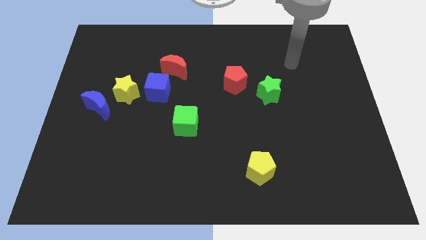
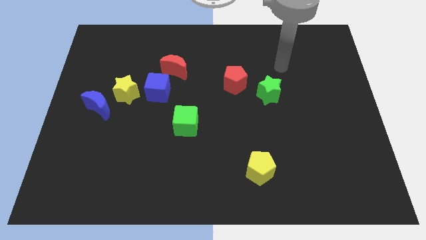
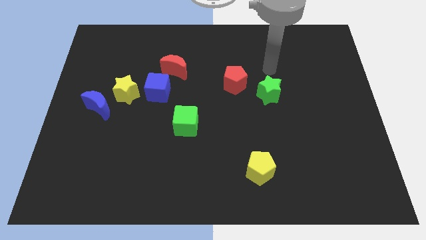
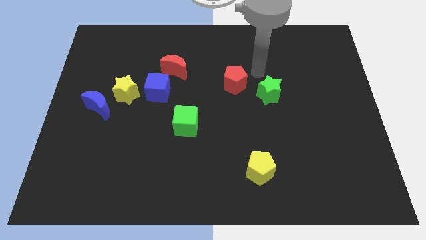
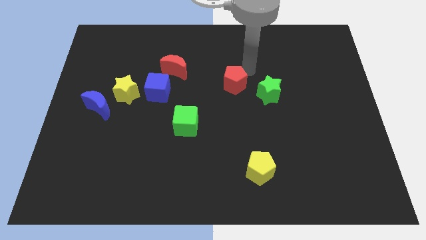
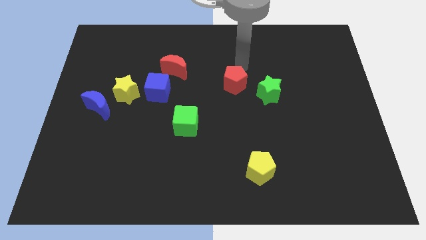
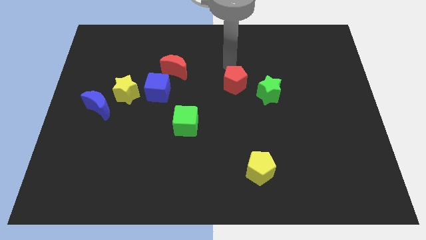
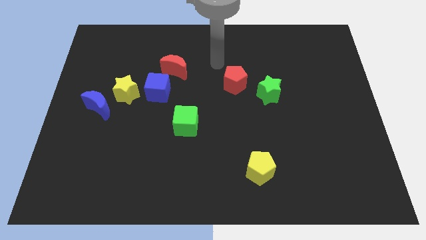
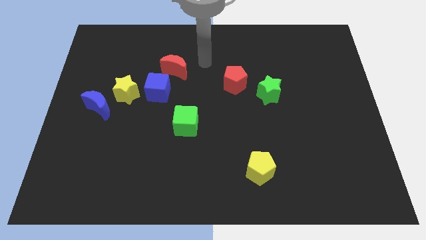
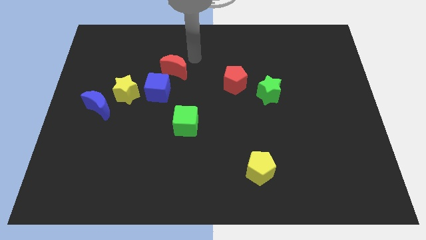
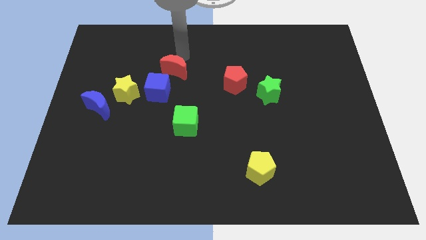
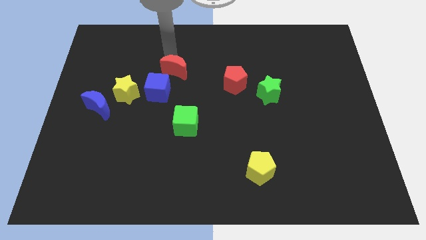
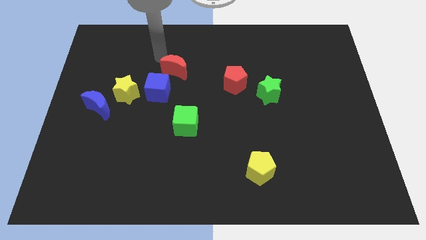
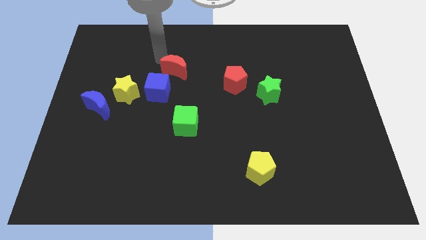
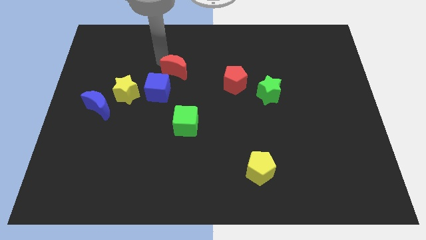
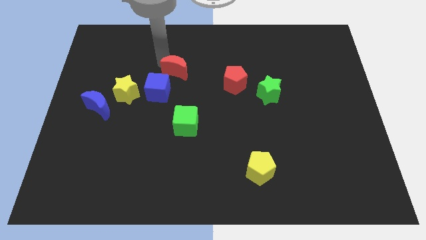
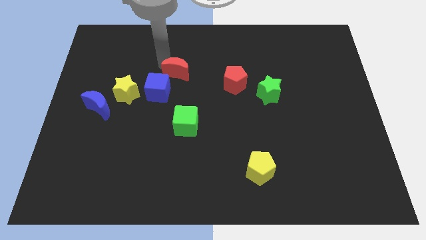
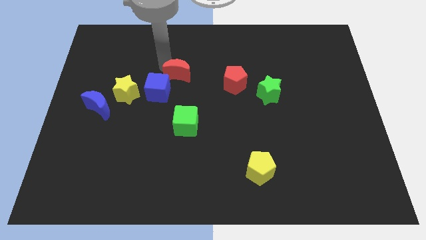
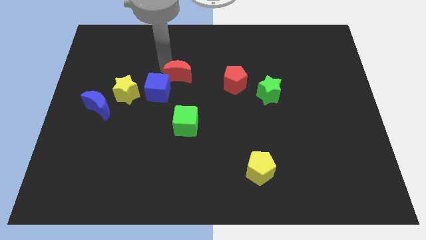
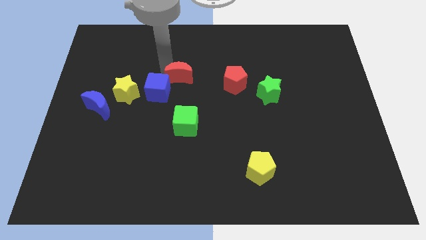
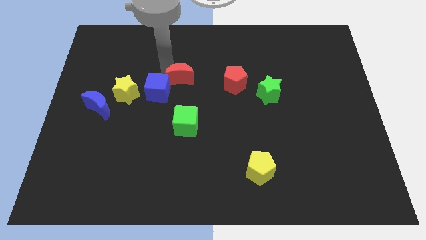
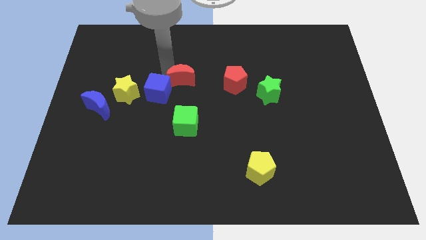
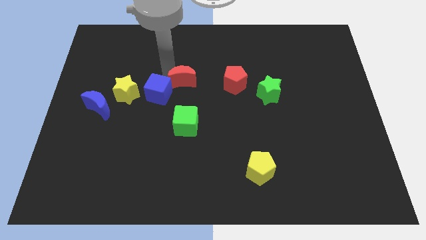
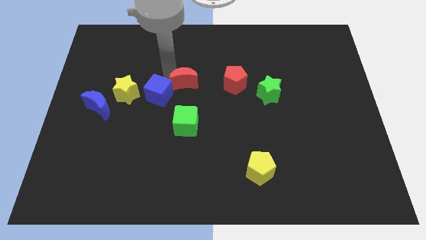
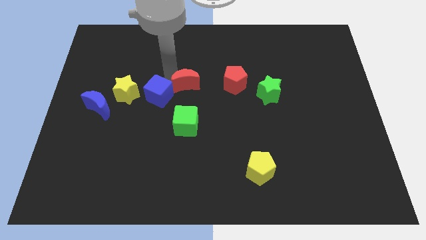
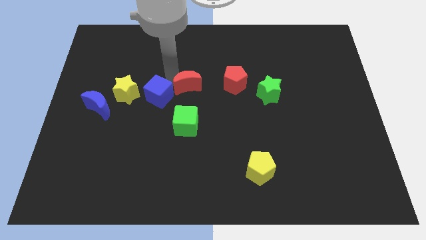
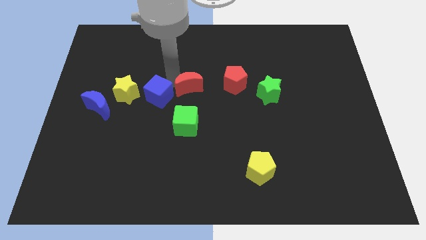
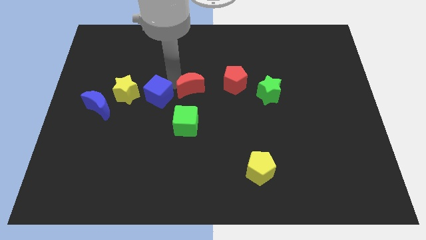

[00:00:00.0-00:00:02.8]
push the red moon diagonally down and right a little

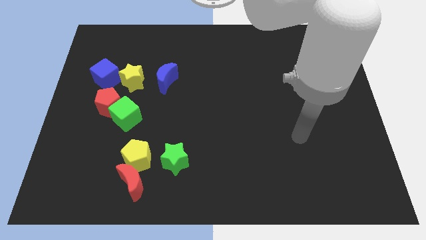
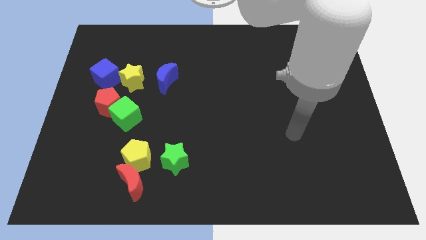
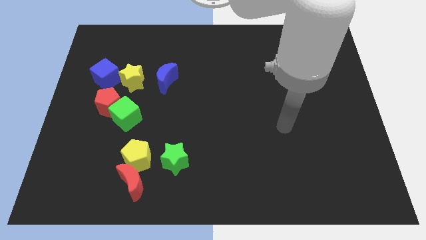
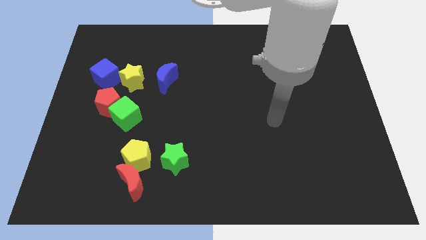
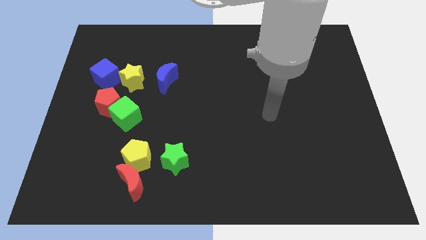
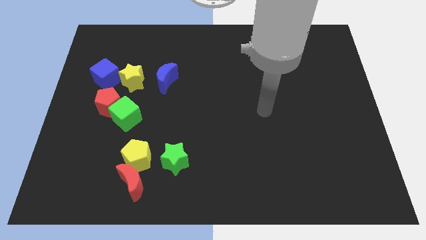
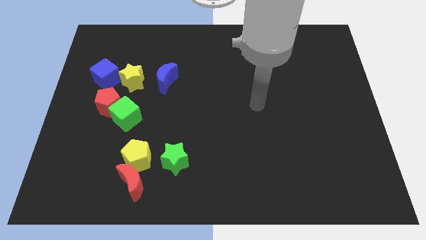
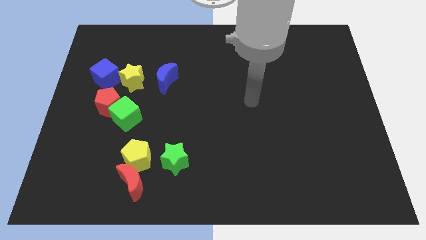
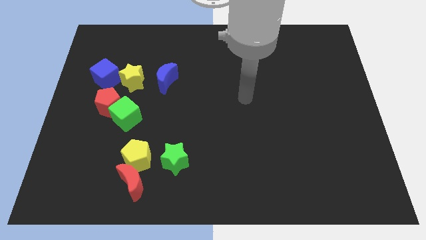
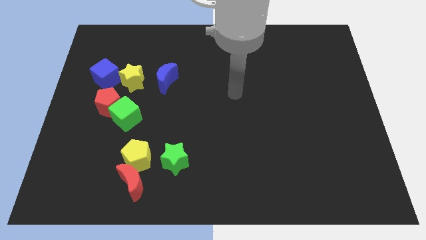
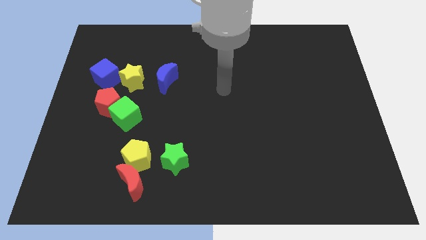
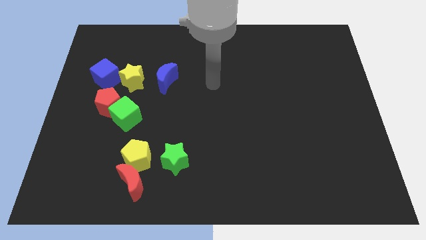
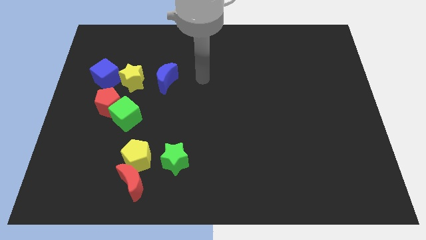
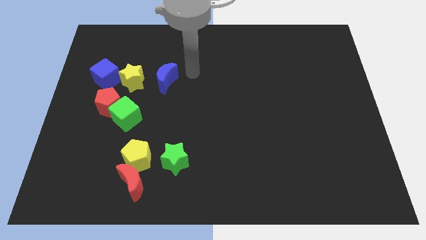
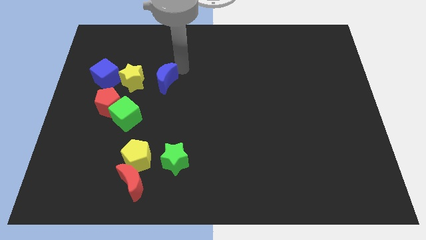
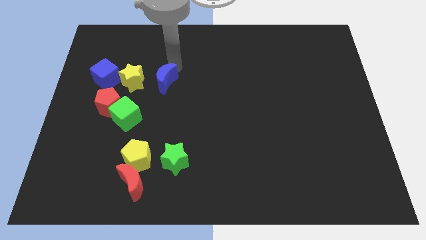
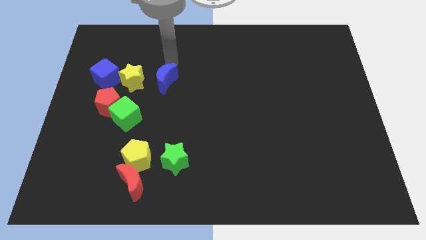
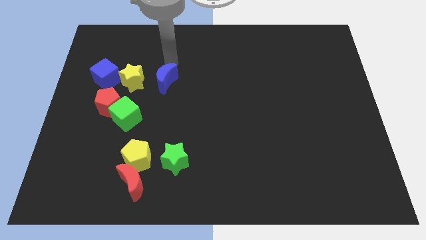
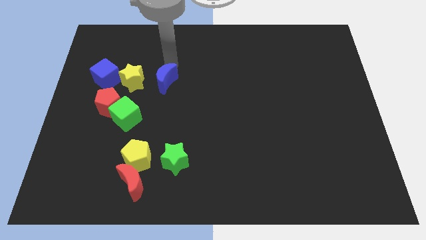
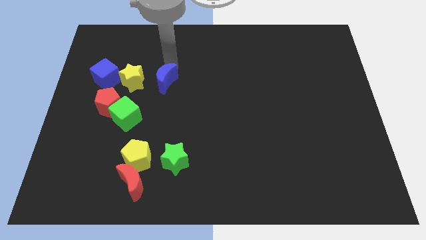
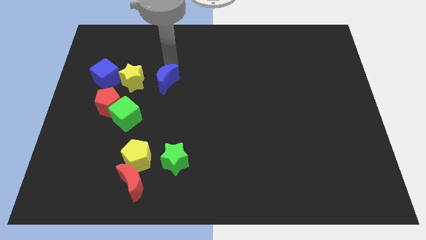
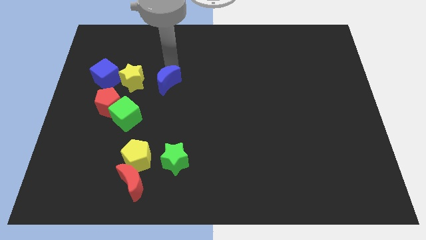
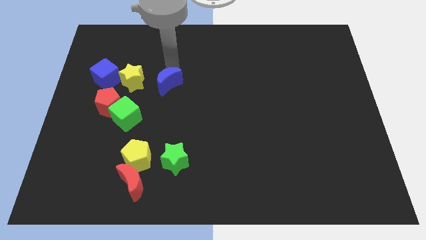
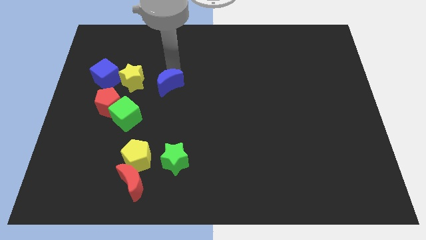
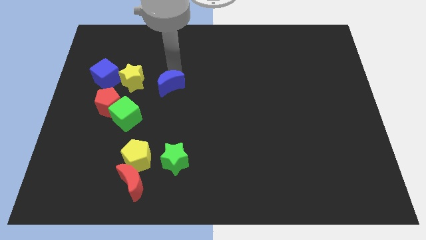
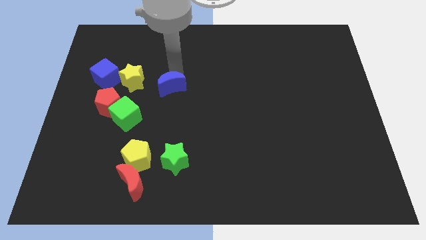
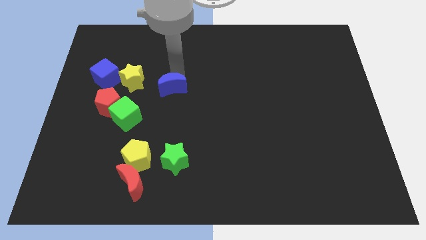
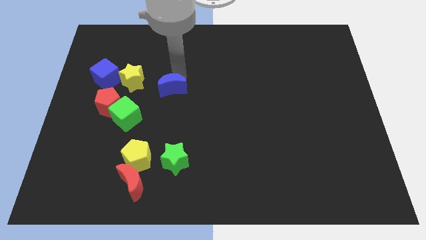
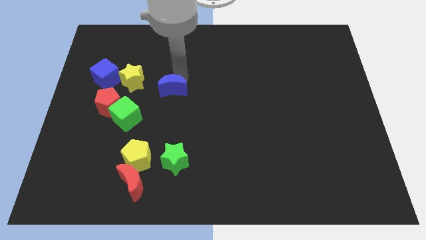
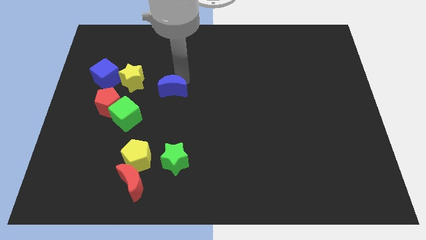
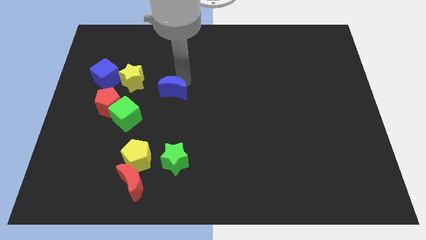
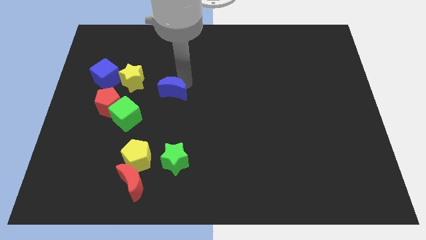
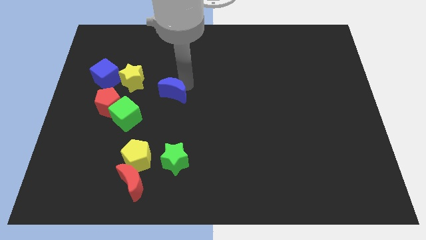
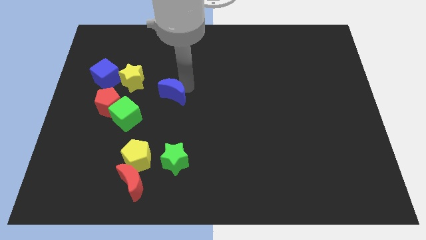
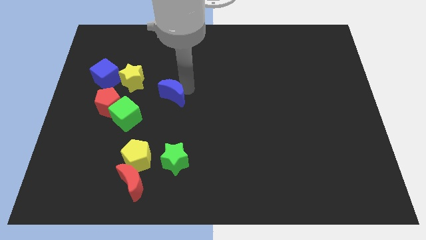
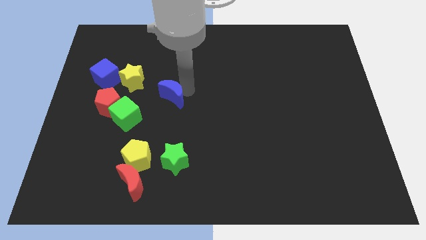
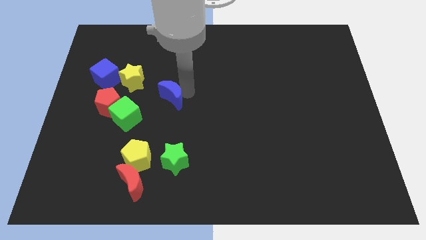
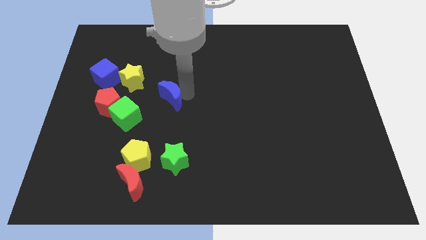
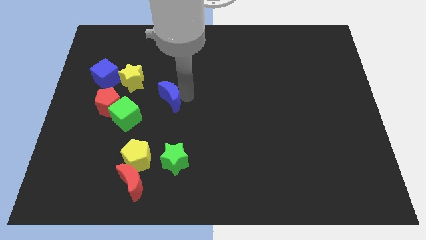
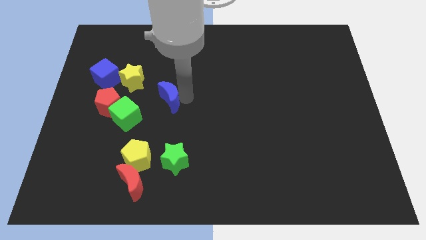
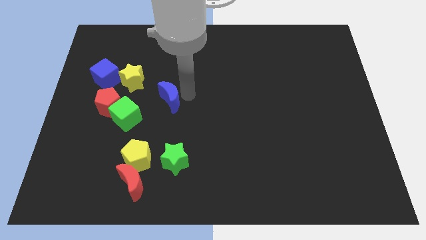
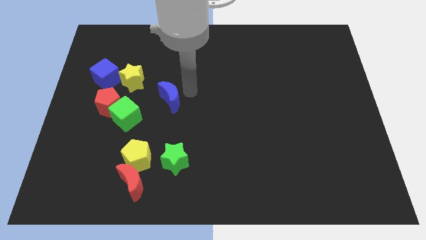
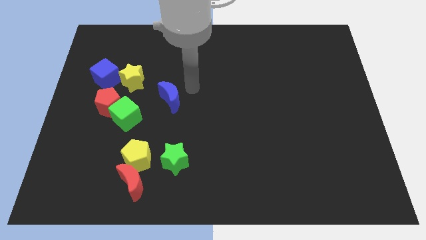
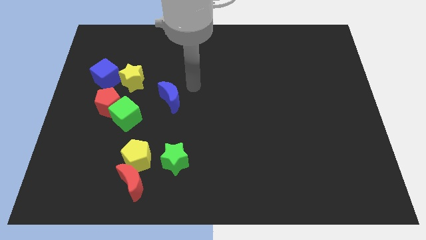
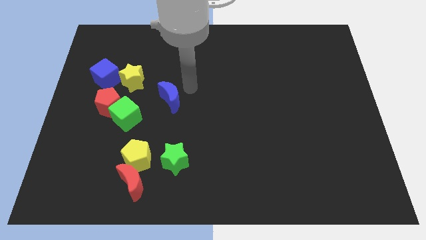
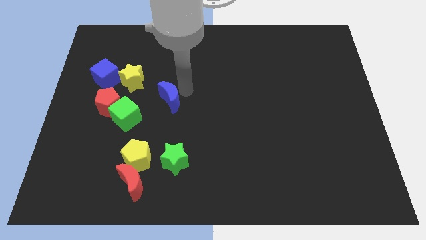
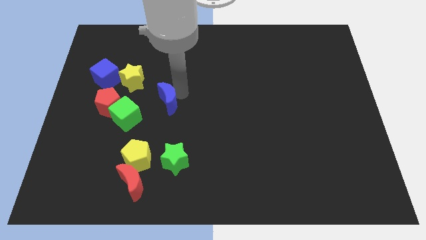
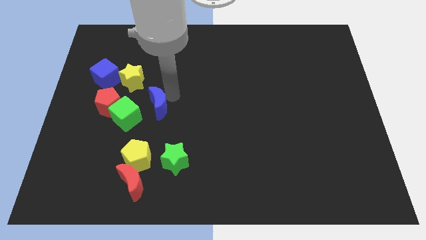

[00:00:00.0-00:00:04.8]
push the blue moon downwards a bit
